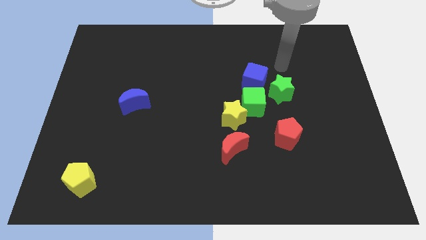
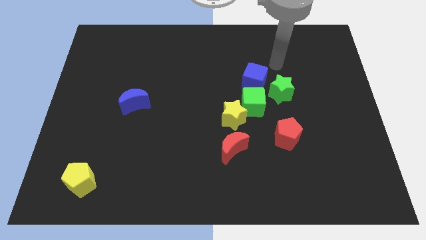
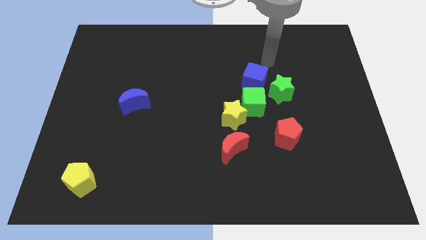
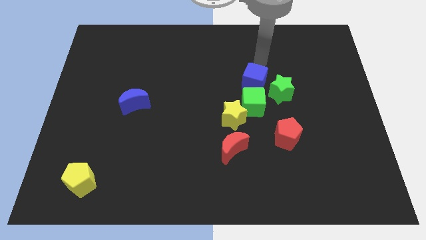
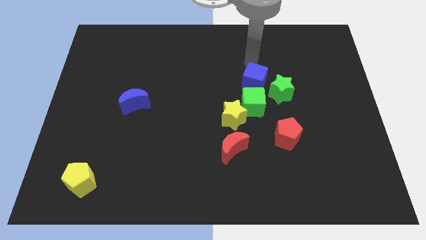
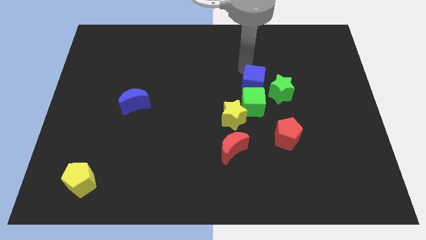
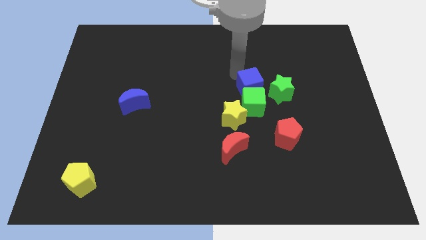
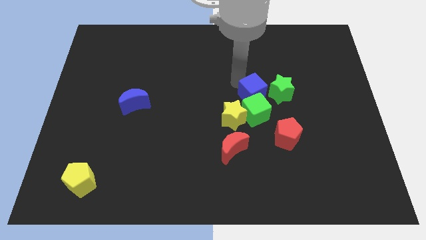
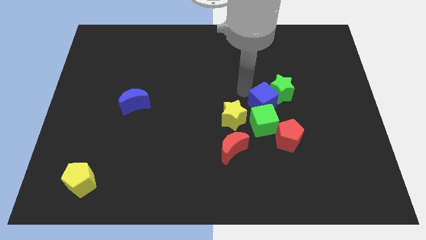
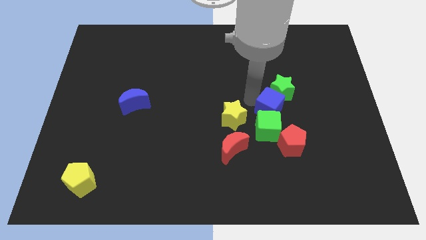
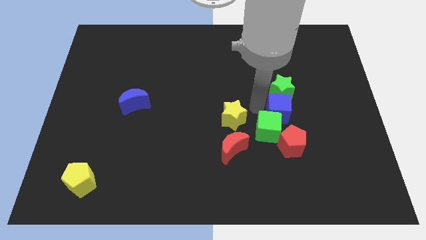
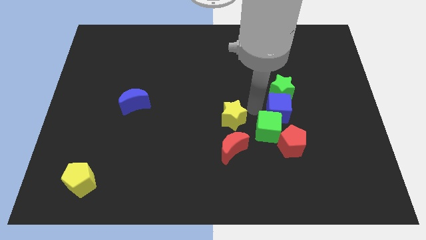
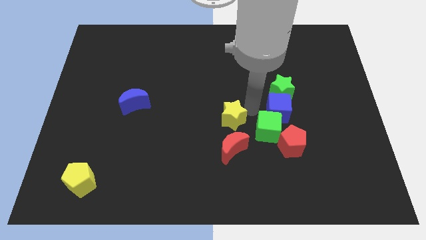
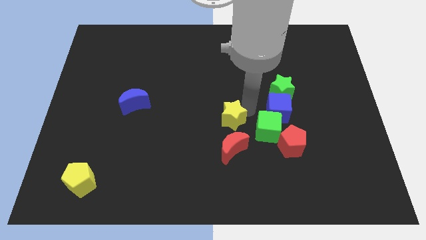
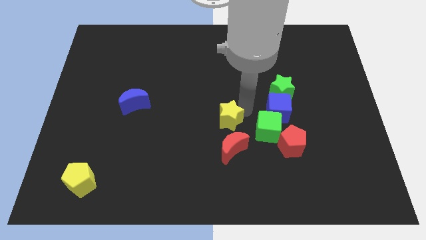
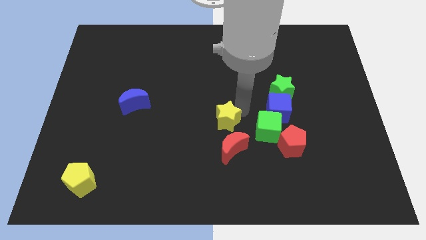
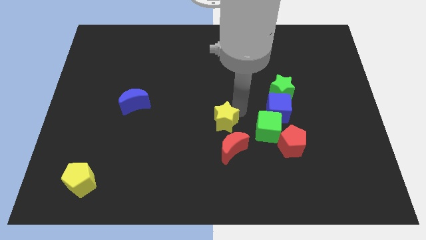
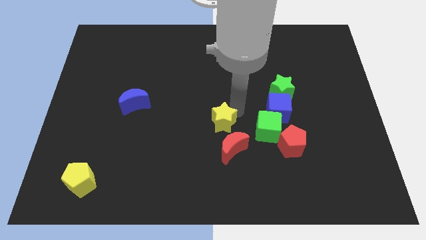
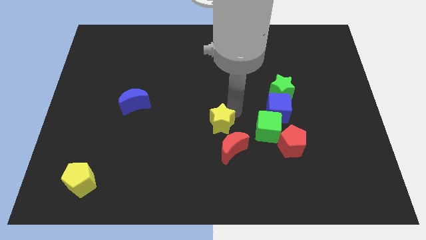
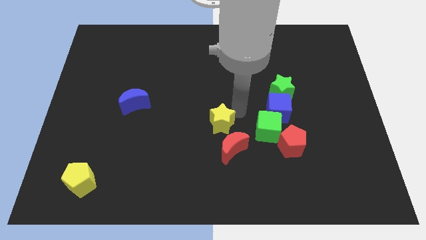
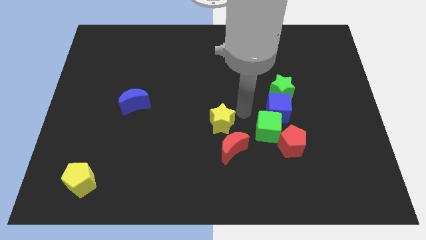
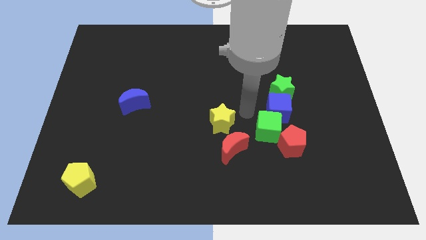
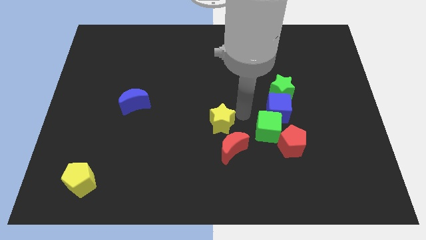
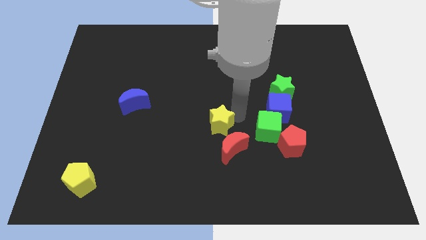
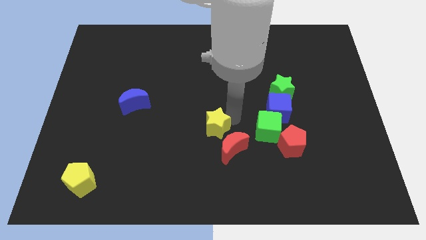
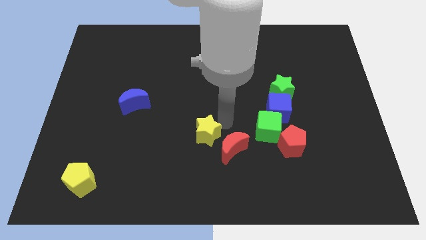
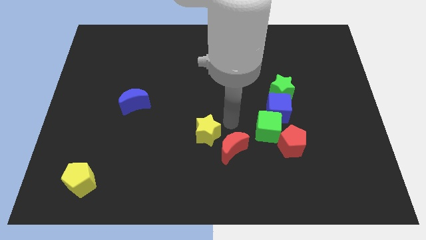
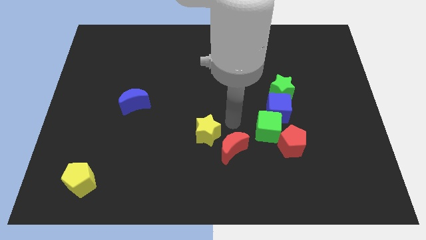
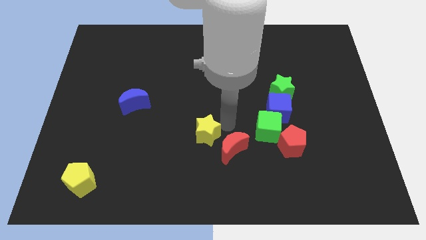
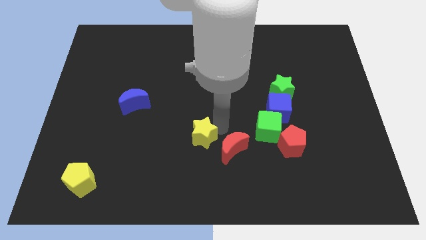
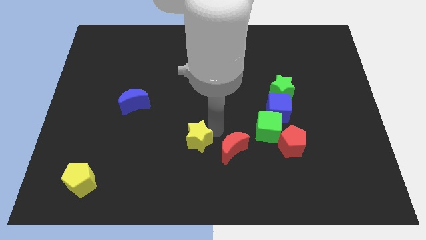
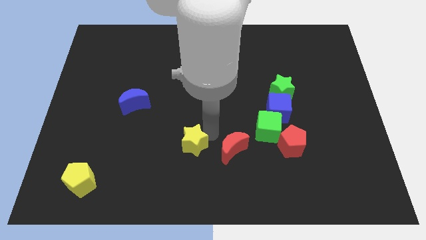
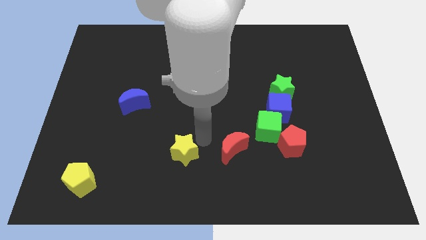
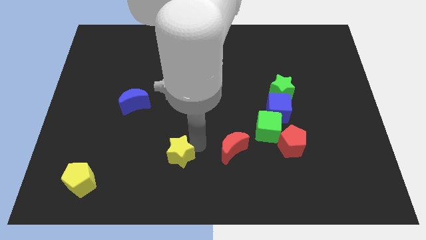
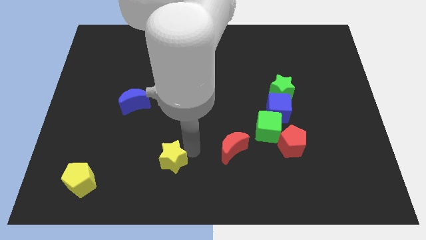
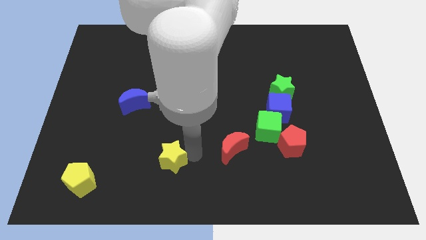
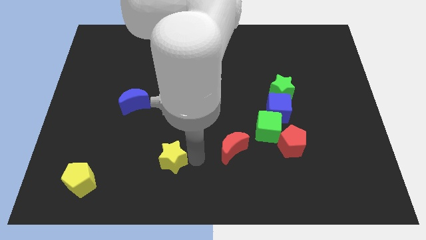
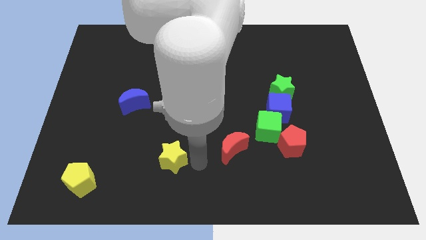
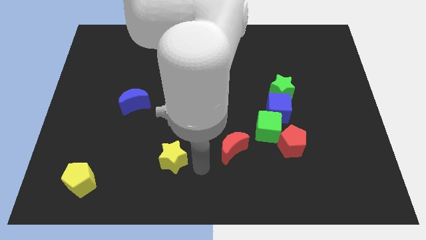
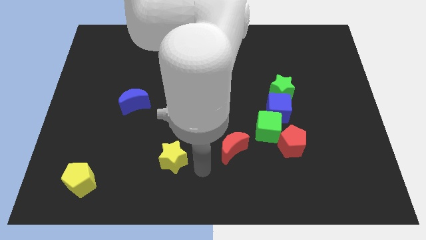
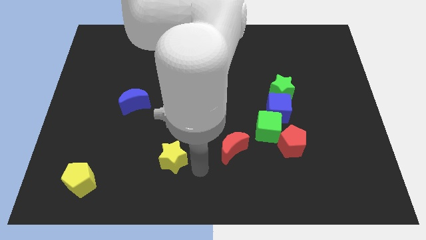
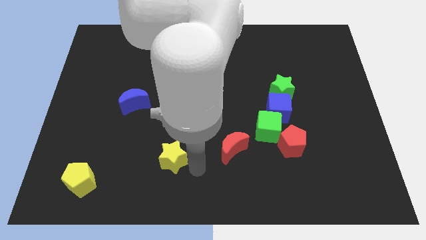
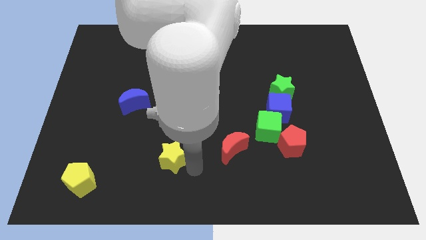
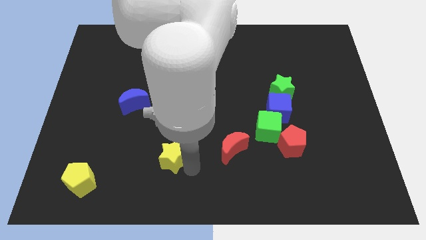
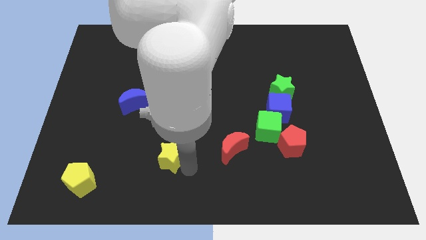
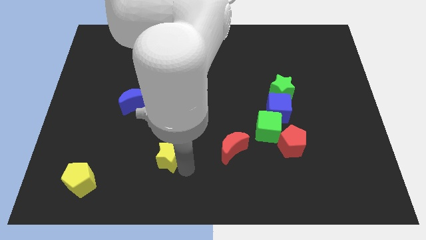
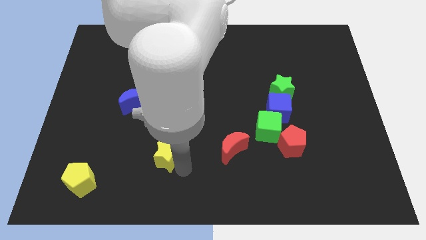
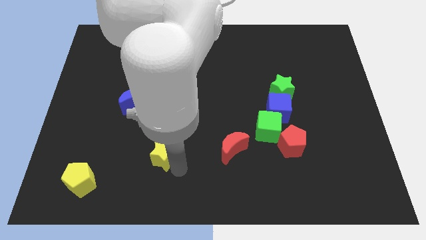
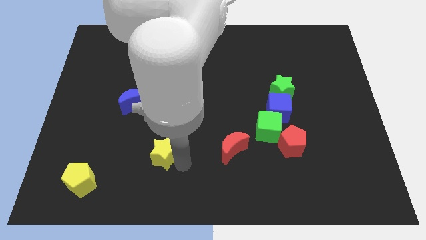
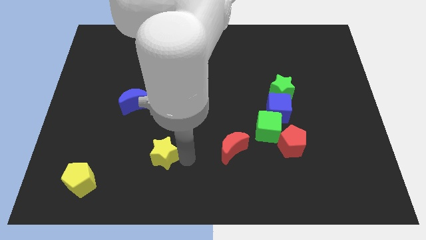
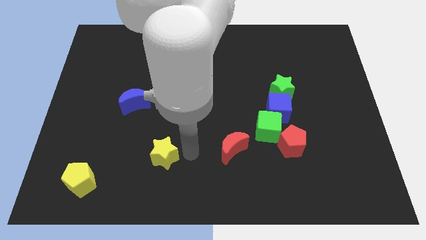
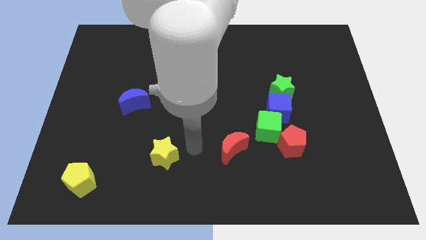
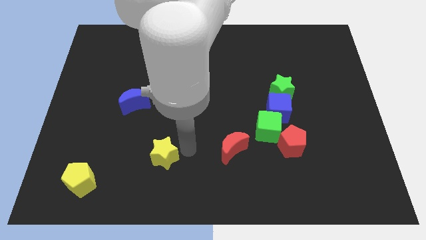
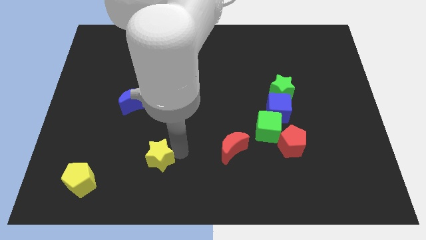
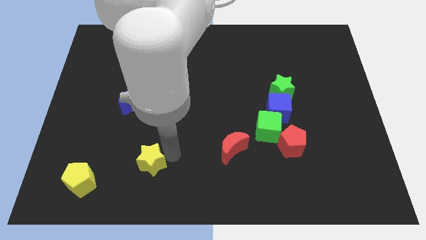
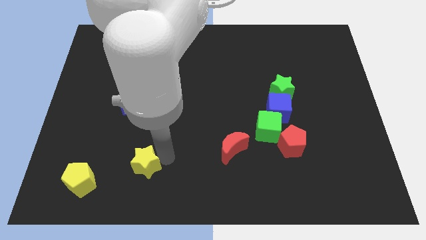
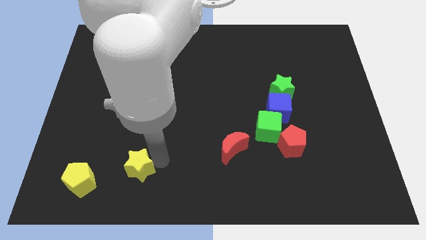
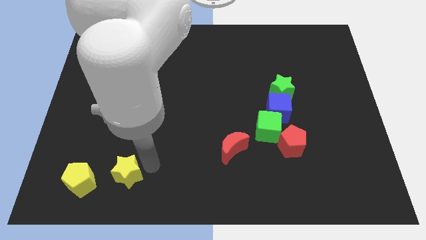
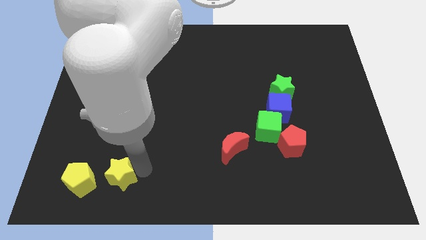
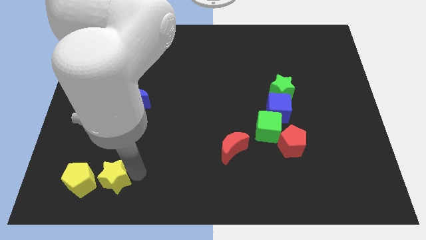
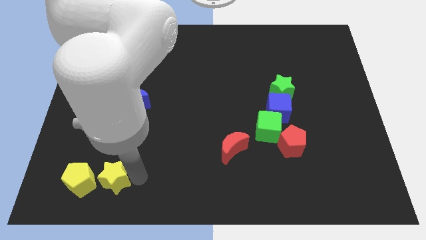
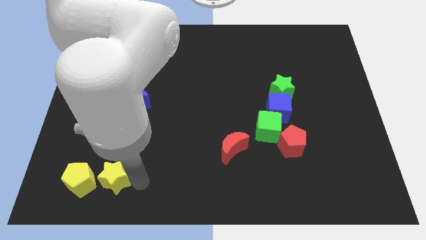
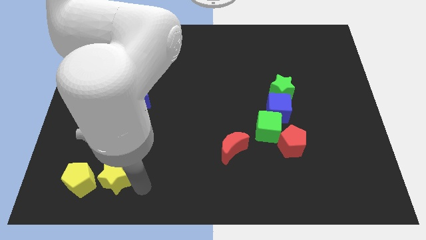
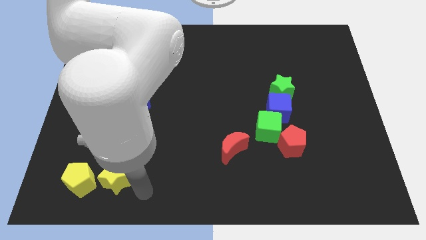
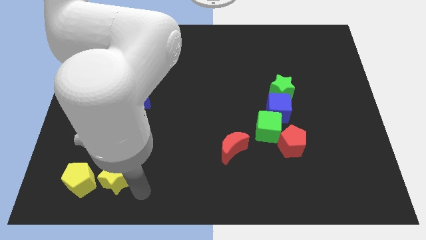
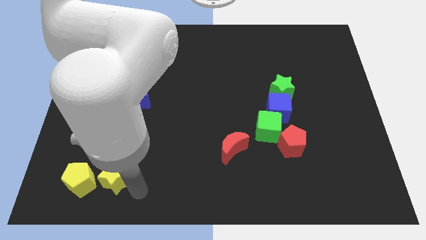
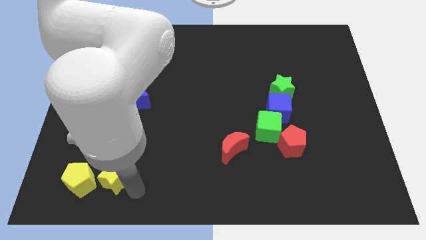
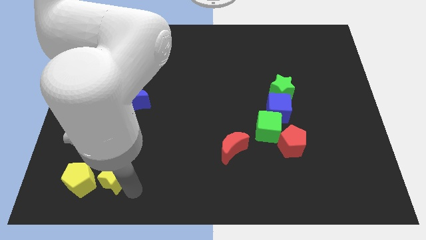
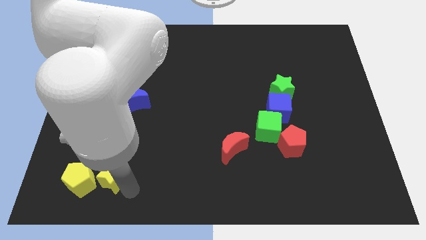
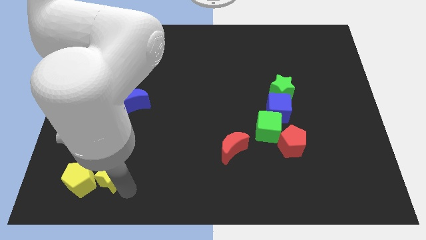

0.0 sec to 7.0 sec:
slide the yellow star next to the yellow pentagon
